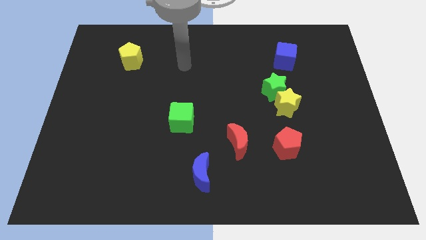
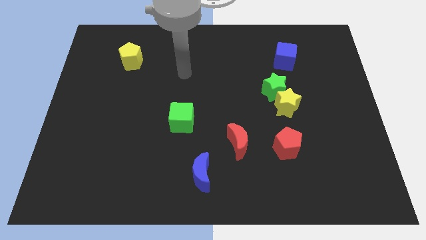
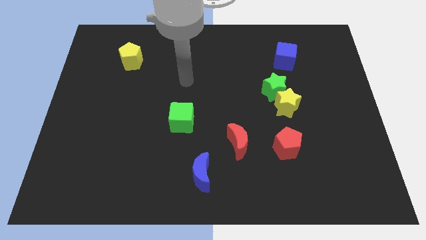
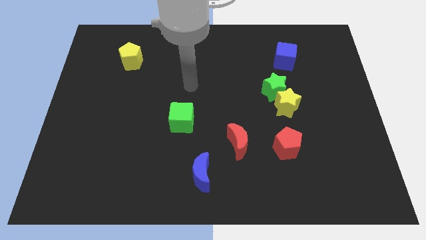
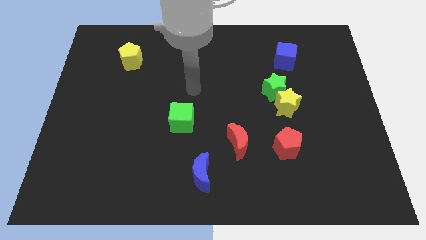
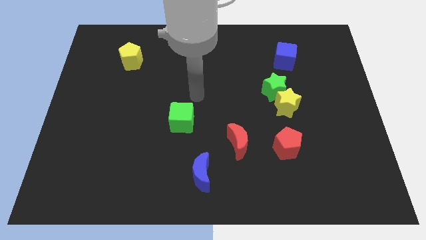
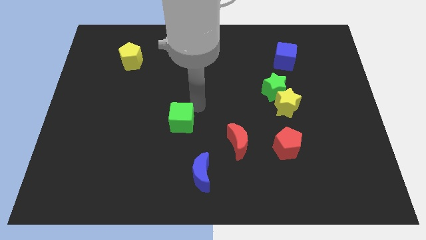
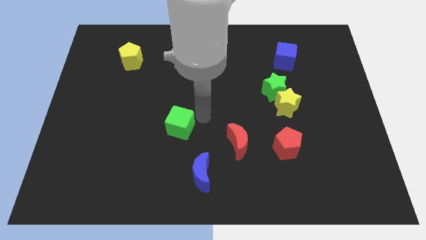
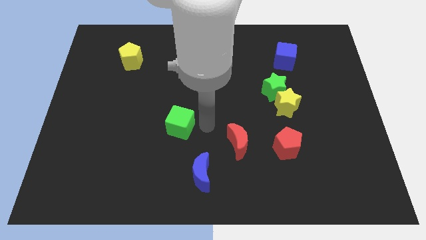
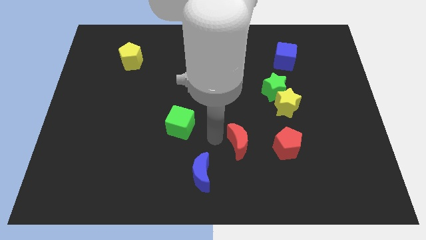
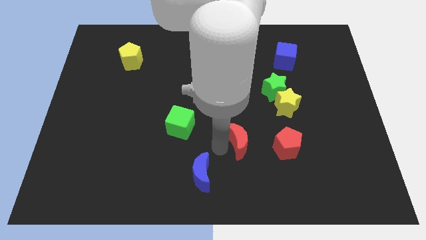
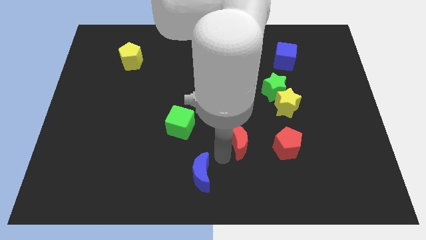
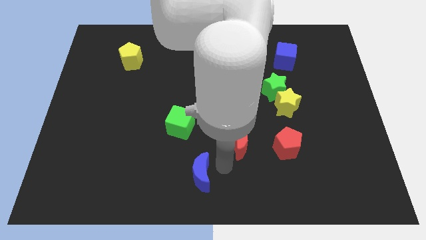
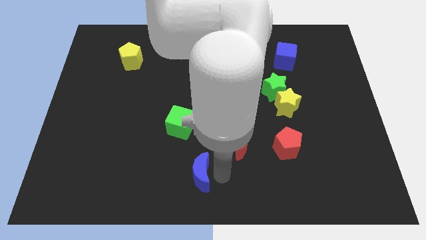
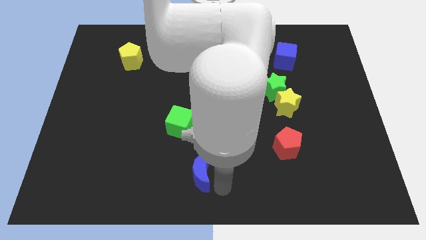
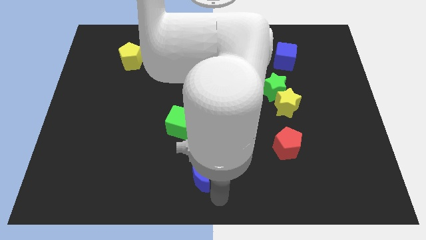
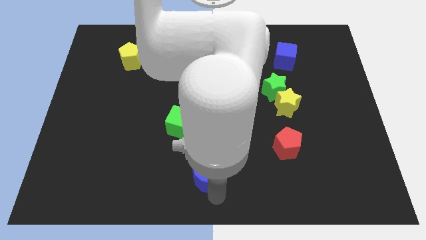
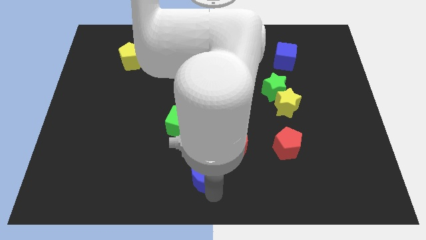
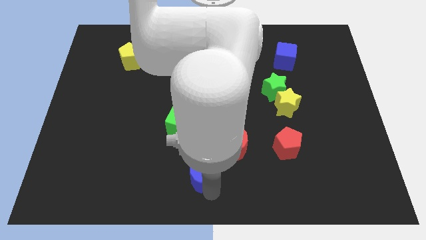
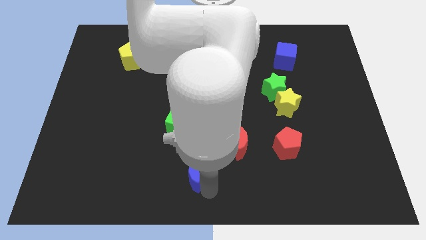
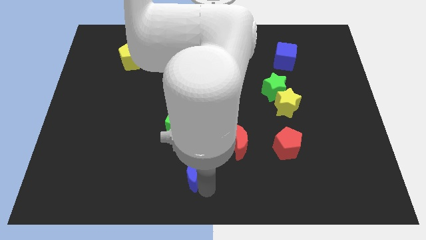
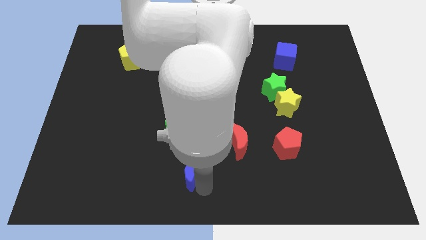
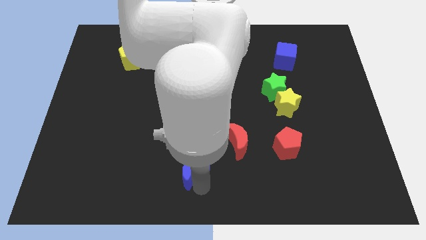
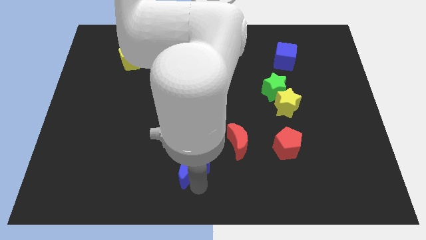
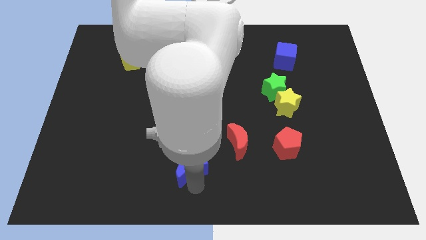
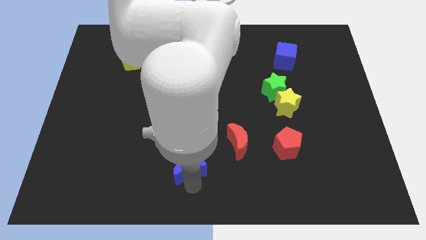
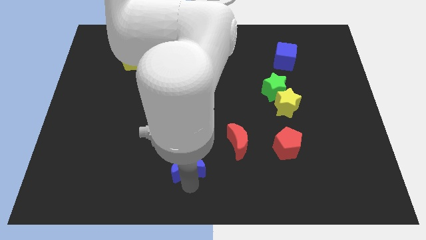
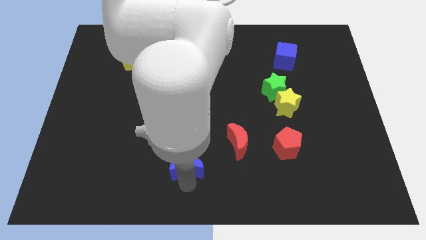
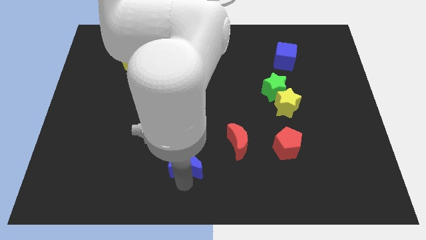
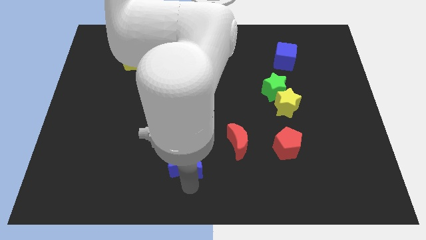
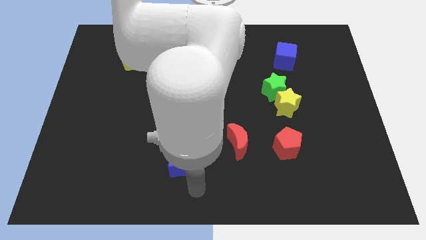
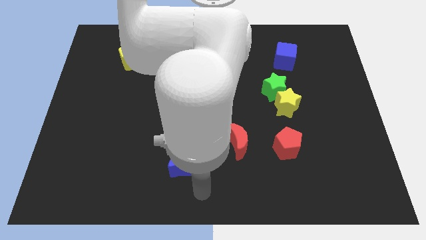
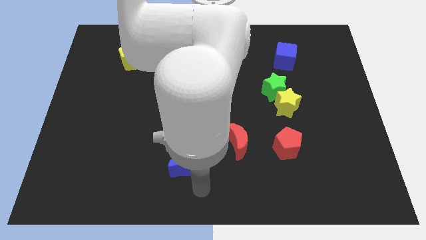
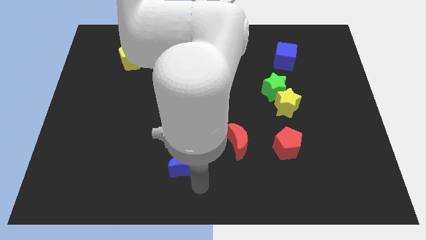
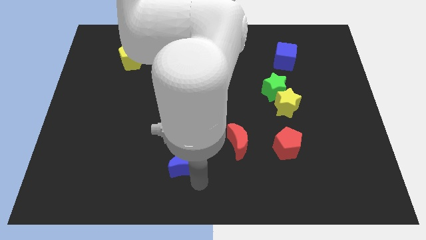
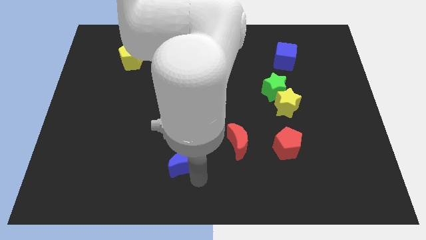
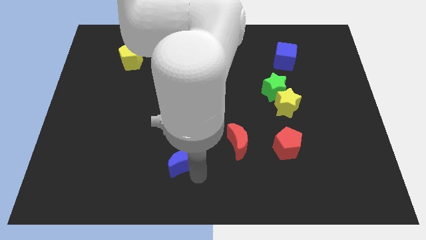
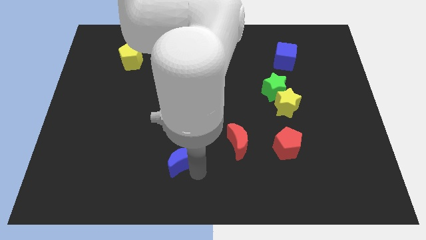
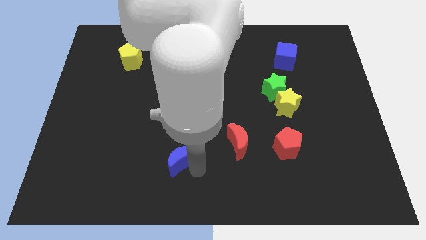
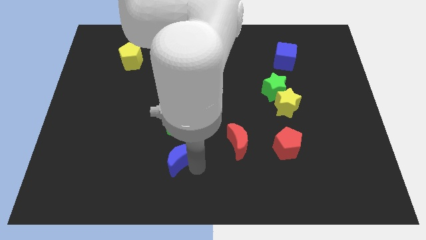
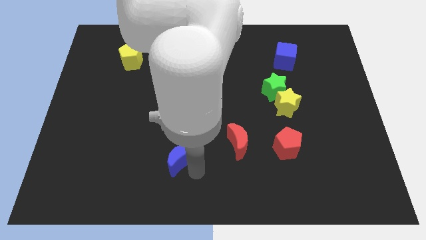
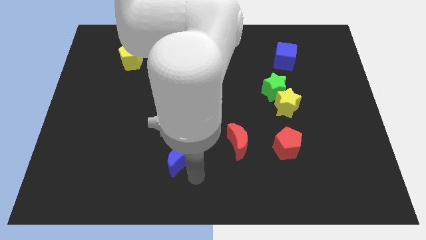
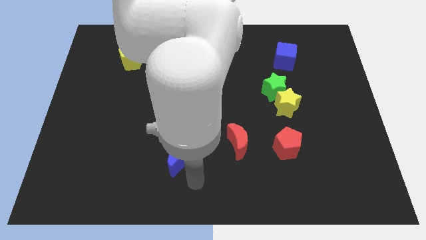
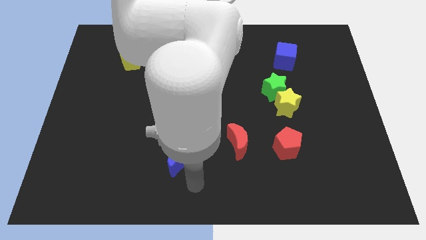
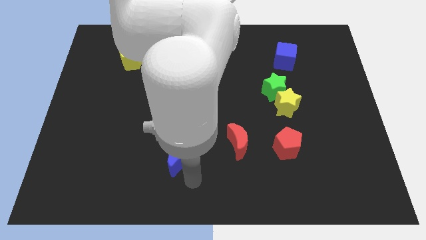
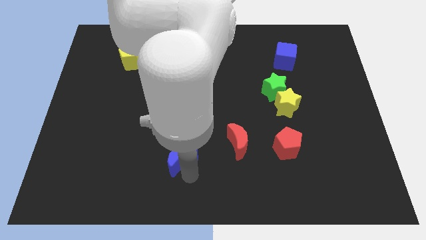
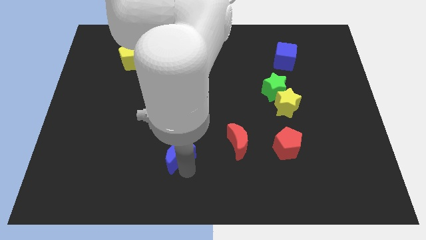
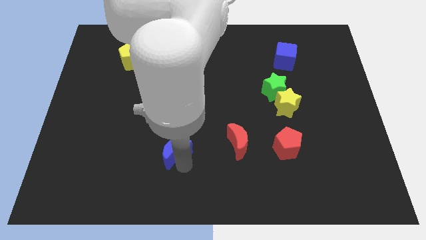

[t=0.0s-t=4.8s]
move the blue moon up and left slightly

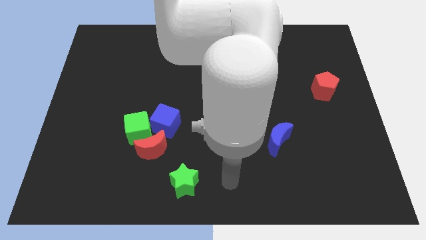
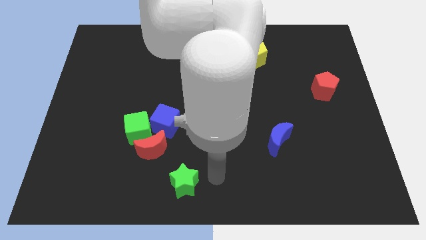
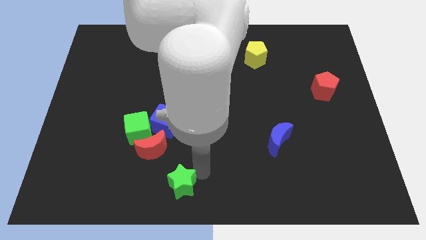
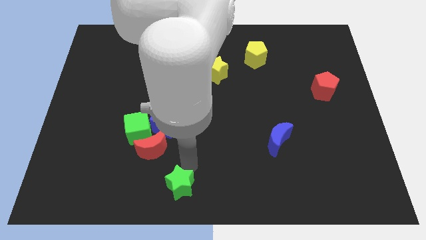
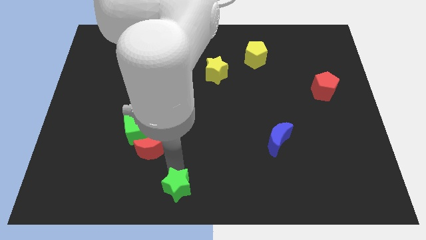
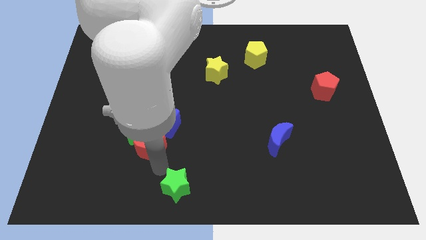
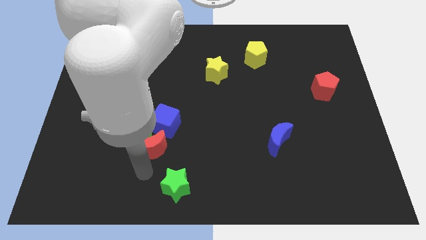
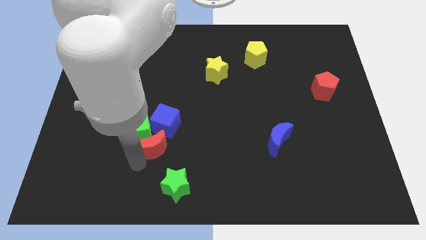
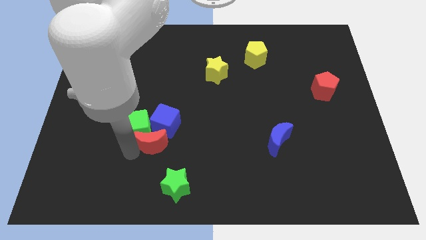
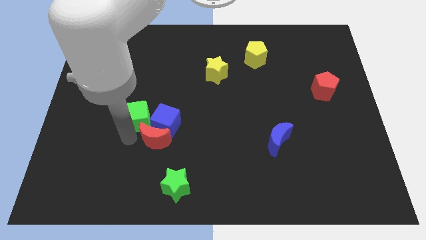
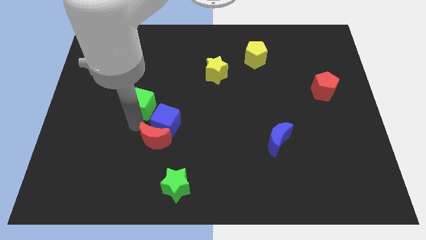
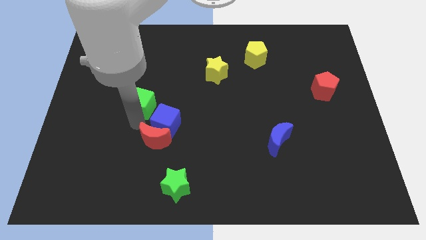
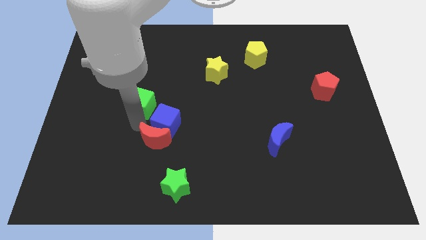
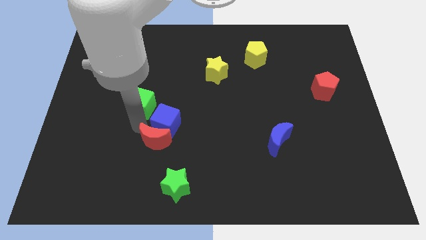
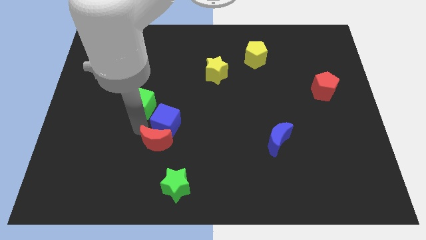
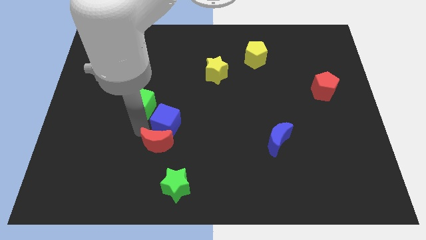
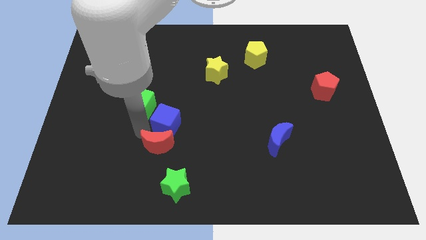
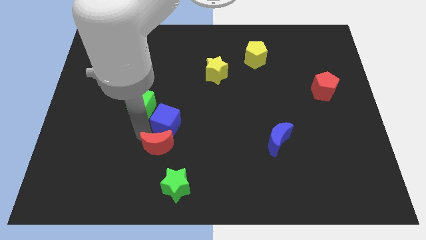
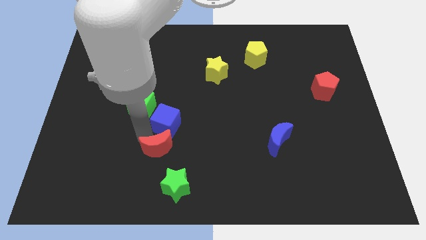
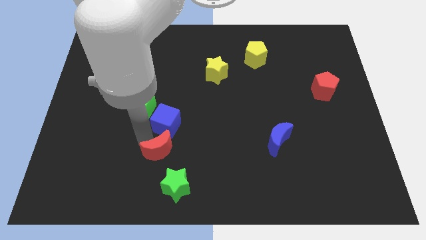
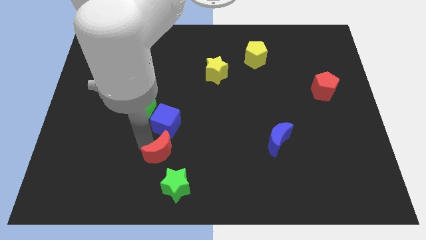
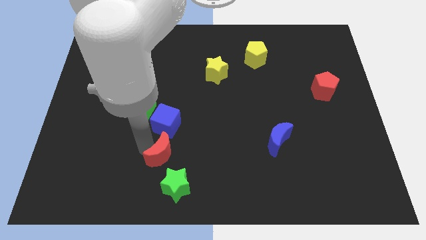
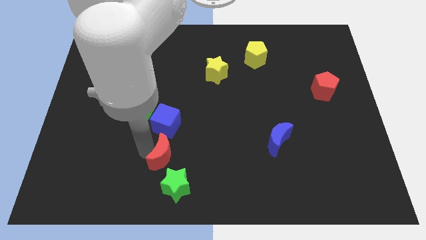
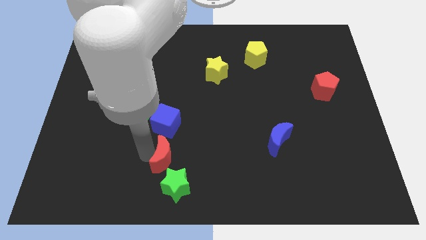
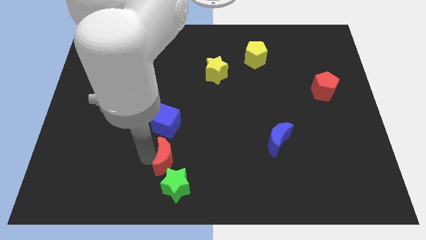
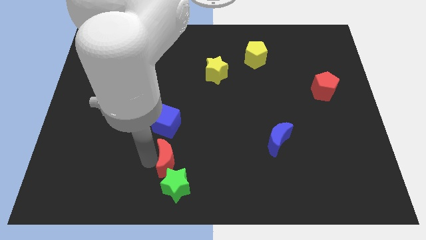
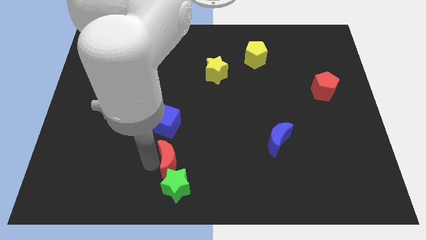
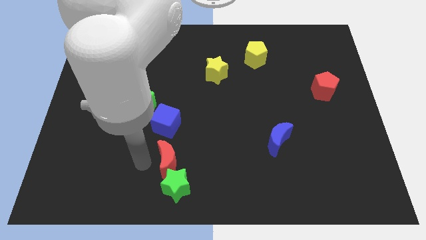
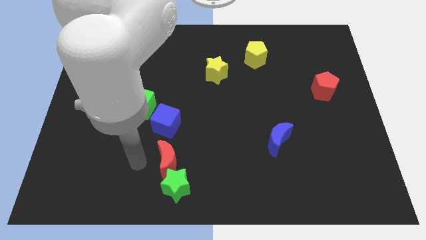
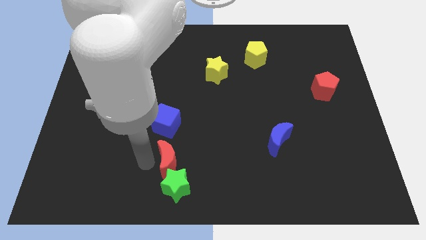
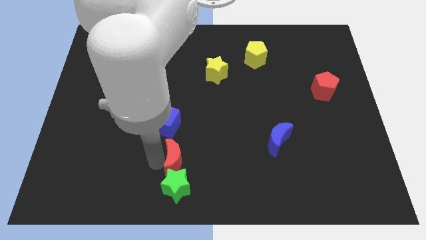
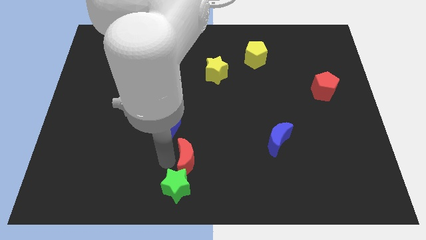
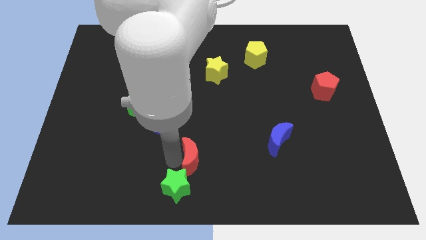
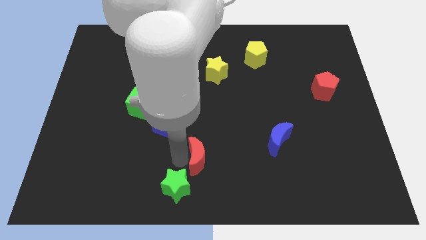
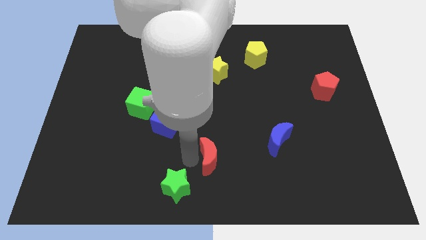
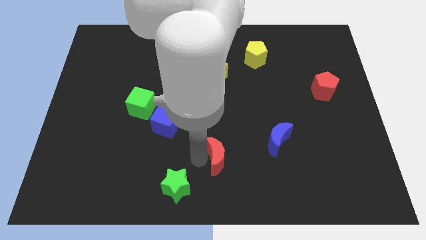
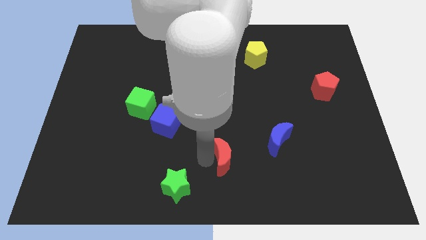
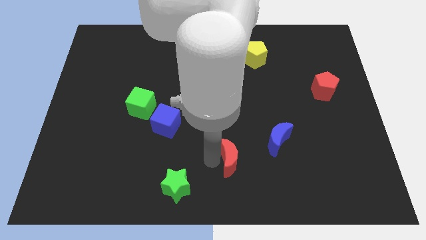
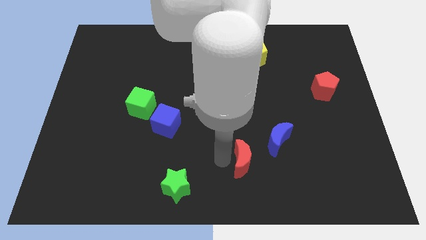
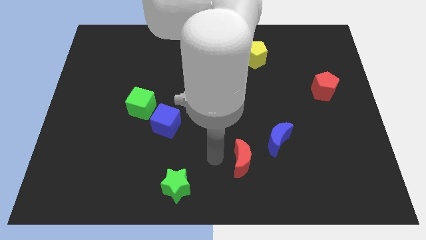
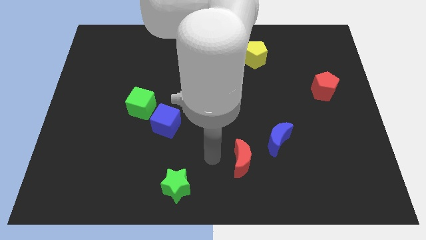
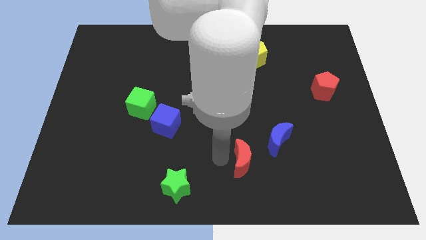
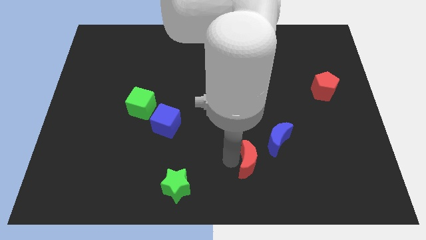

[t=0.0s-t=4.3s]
push the red moon to the right
